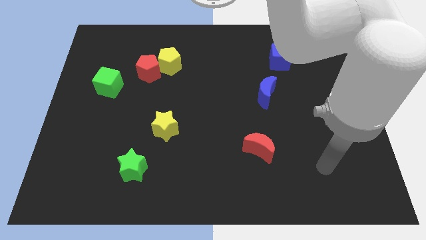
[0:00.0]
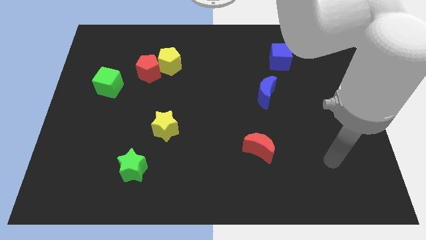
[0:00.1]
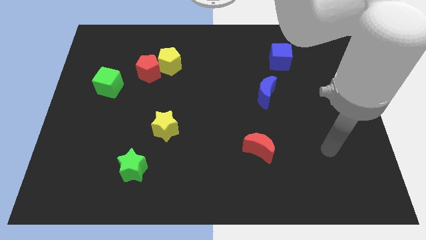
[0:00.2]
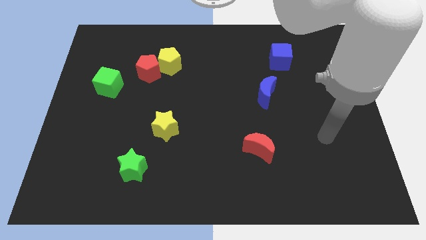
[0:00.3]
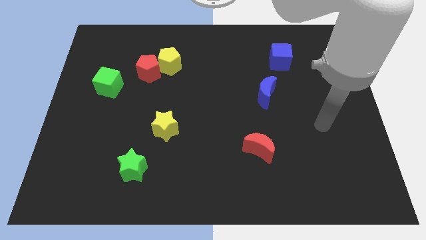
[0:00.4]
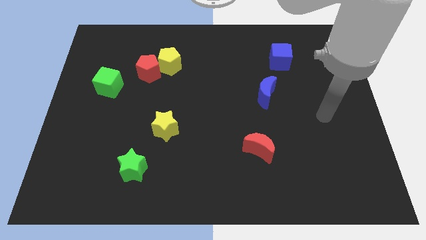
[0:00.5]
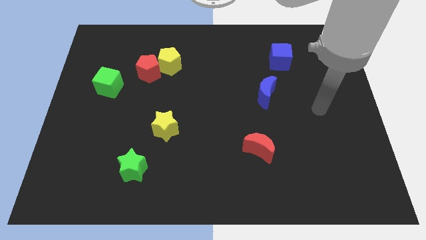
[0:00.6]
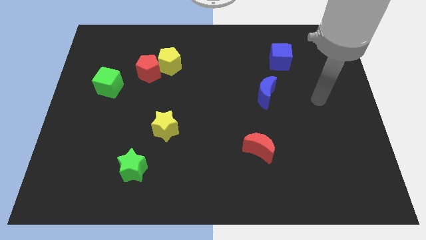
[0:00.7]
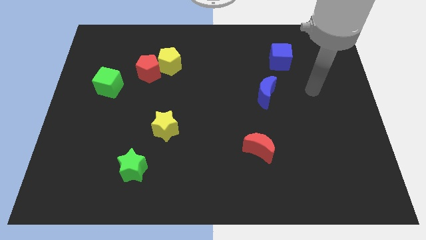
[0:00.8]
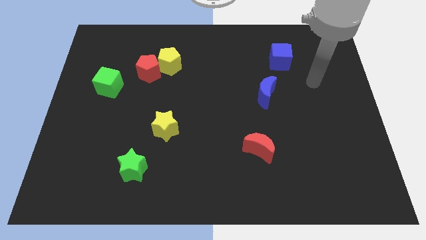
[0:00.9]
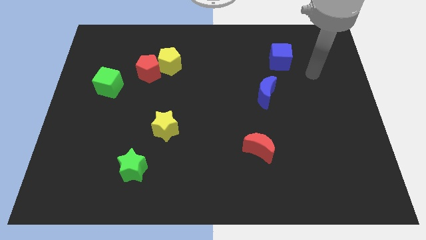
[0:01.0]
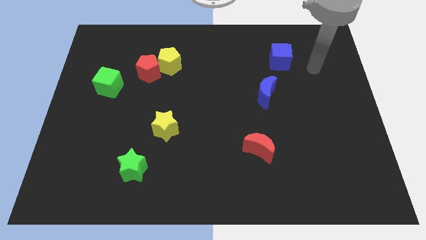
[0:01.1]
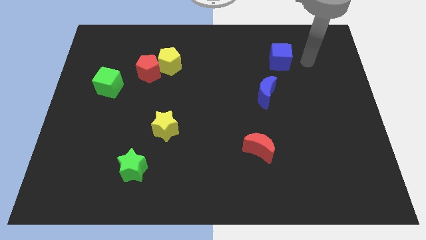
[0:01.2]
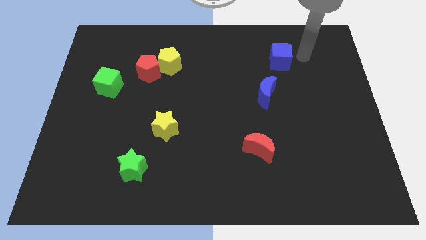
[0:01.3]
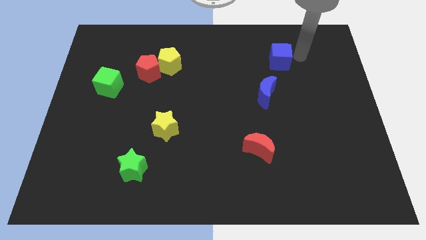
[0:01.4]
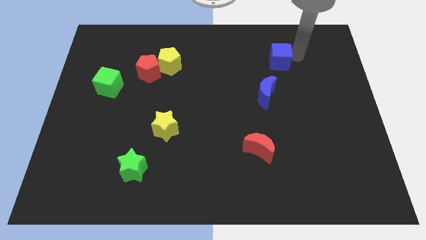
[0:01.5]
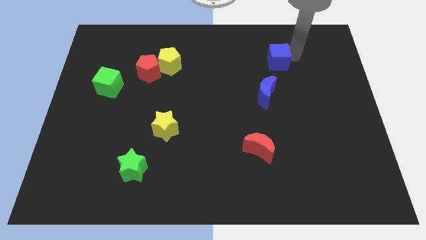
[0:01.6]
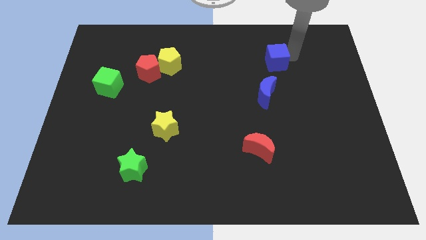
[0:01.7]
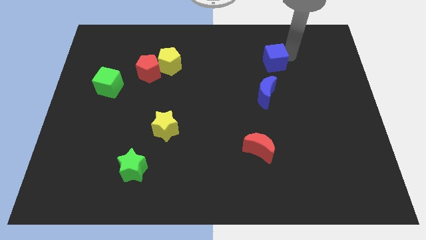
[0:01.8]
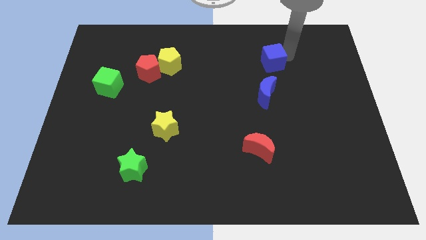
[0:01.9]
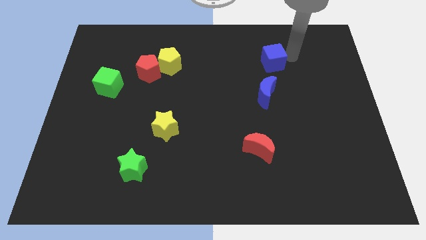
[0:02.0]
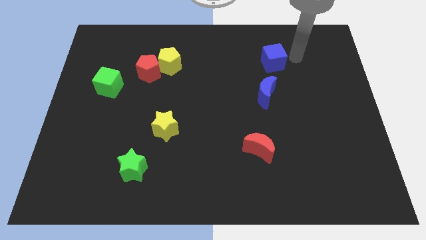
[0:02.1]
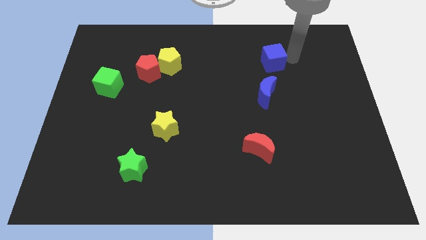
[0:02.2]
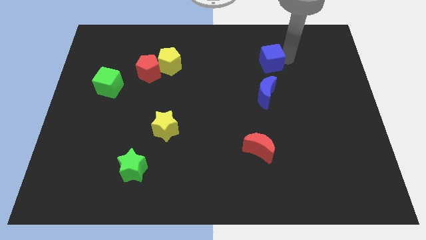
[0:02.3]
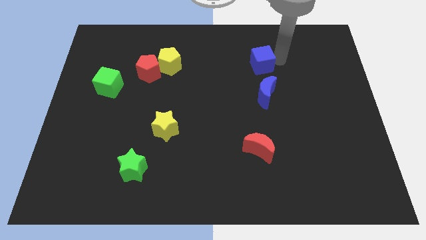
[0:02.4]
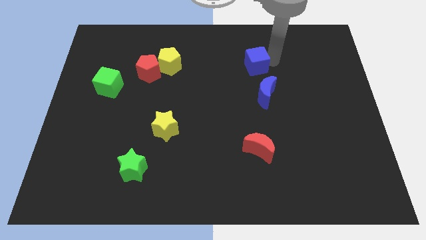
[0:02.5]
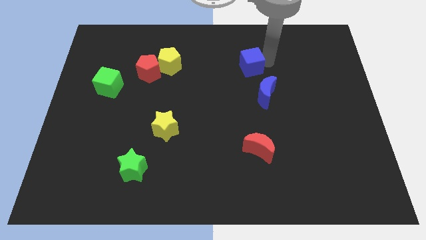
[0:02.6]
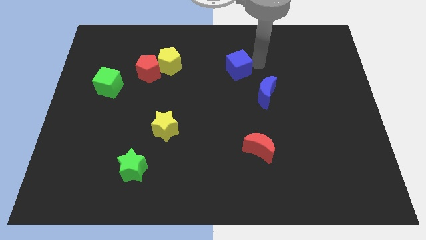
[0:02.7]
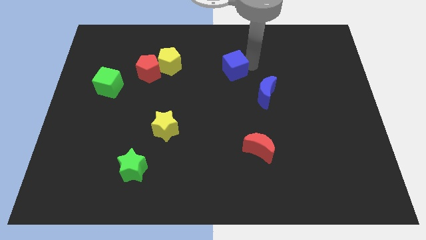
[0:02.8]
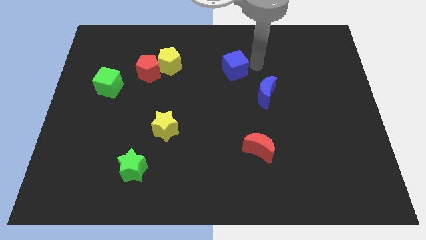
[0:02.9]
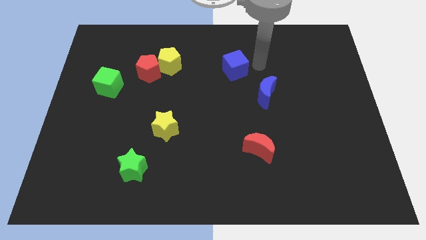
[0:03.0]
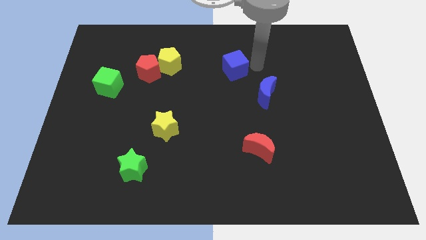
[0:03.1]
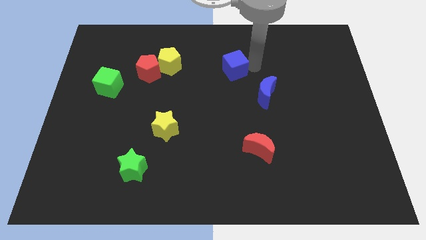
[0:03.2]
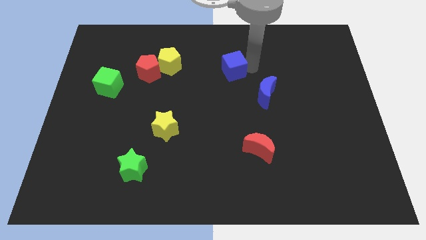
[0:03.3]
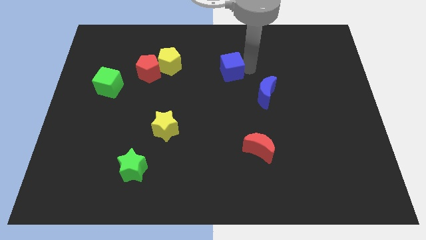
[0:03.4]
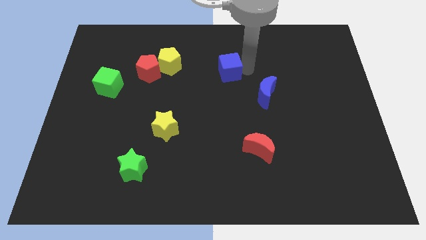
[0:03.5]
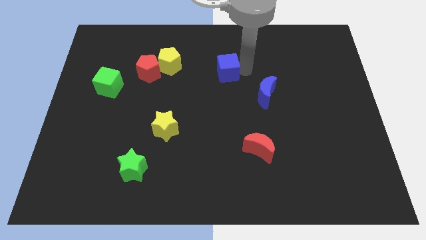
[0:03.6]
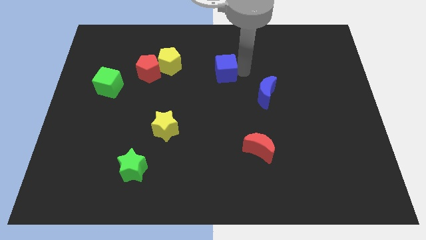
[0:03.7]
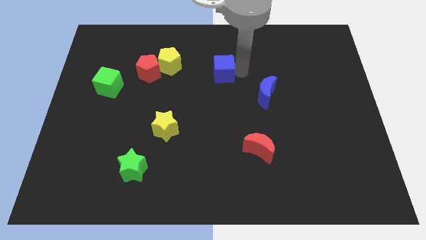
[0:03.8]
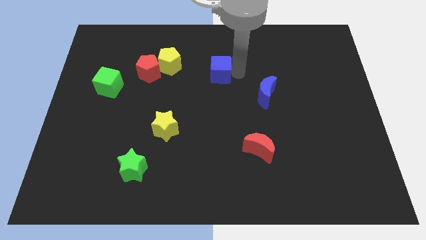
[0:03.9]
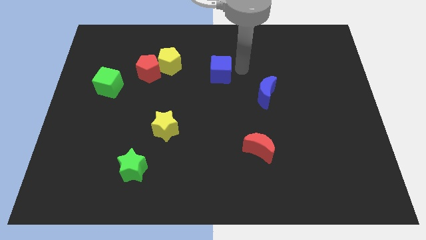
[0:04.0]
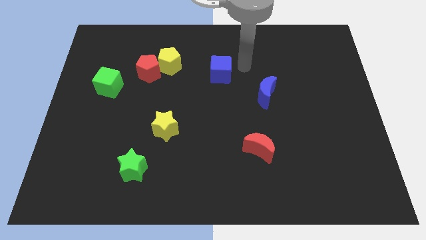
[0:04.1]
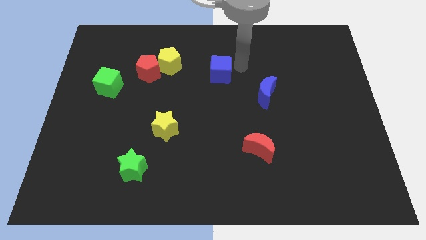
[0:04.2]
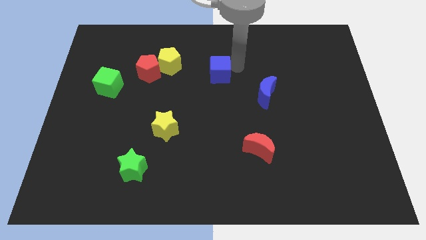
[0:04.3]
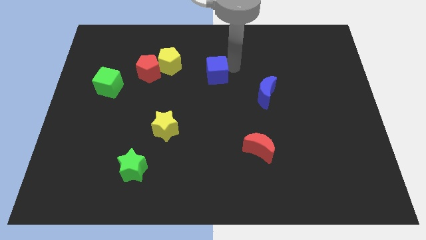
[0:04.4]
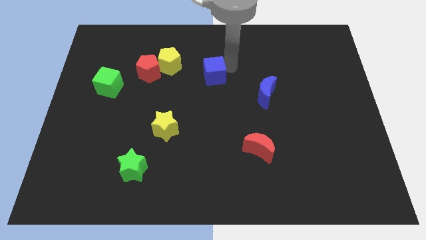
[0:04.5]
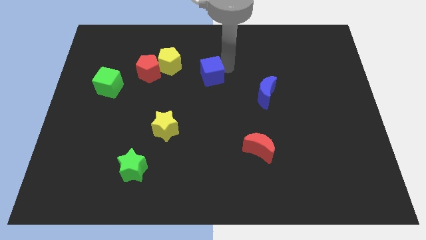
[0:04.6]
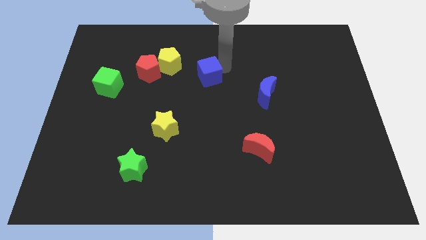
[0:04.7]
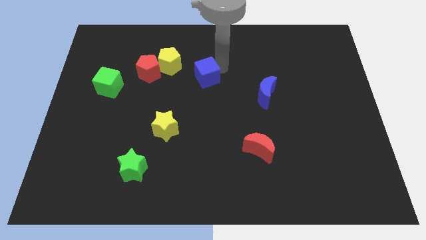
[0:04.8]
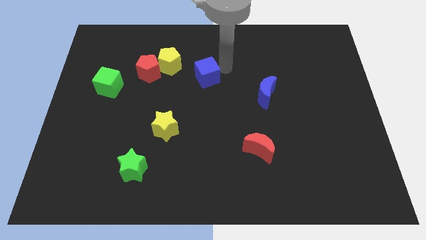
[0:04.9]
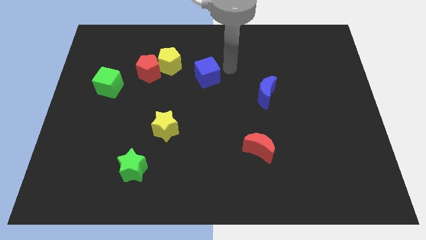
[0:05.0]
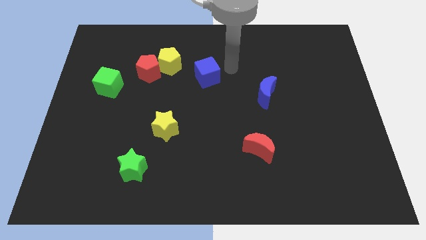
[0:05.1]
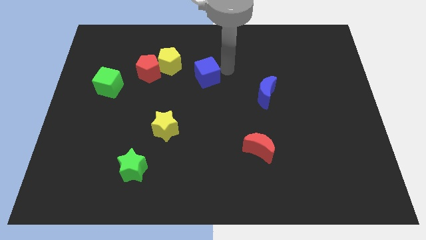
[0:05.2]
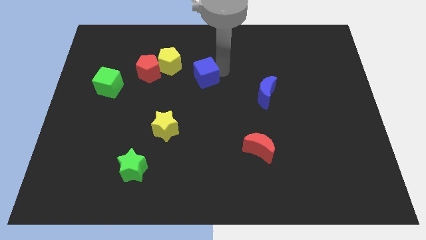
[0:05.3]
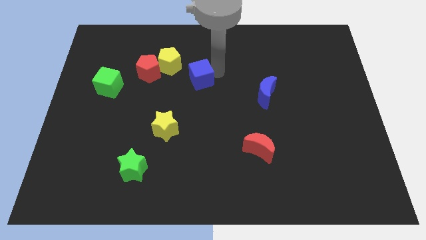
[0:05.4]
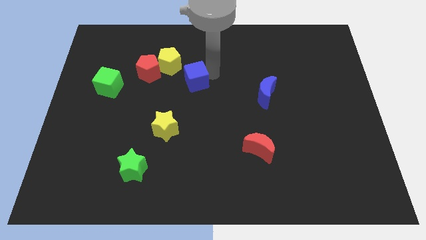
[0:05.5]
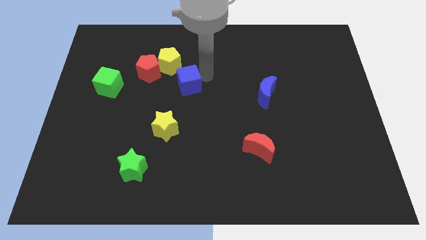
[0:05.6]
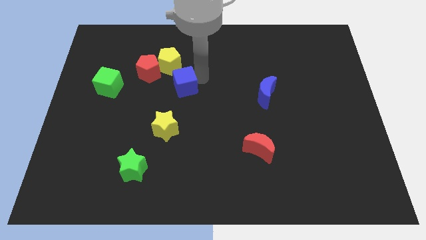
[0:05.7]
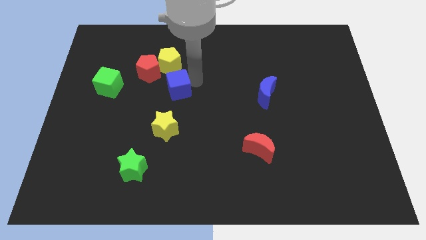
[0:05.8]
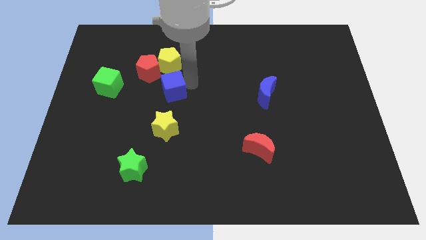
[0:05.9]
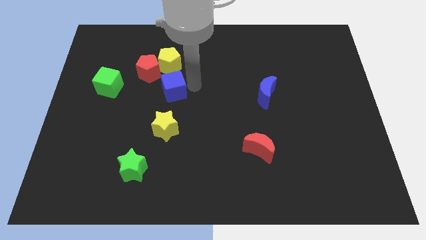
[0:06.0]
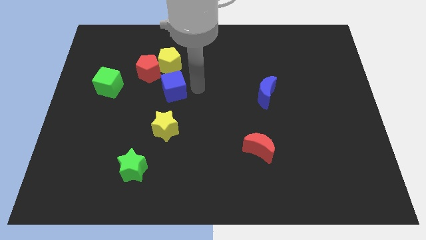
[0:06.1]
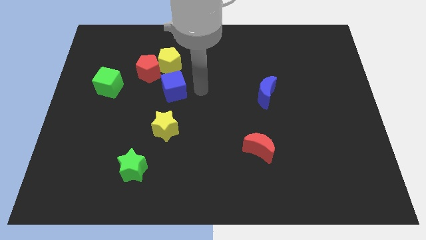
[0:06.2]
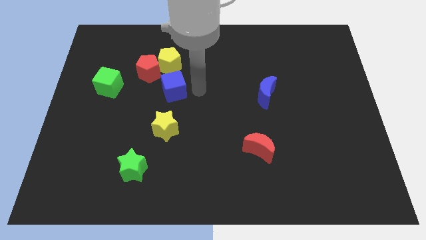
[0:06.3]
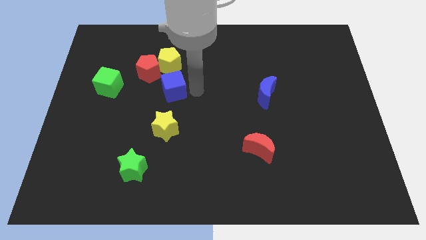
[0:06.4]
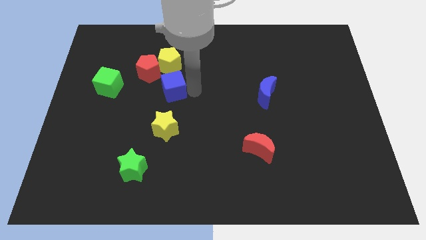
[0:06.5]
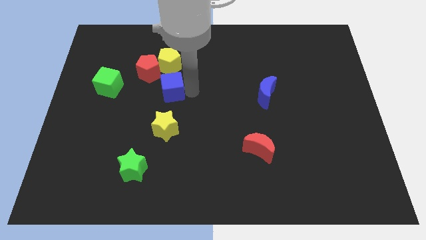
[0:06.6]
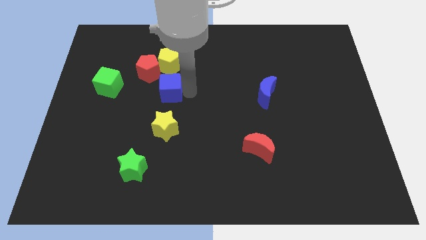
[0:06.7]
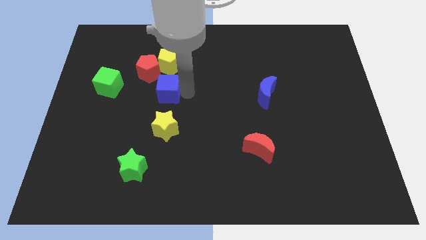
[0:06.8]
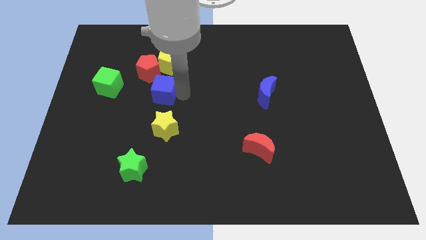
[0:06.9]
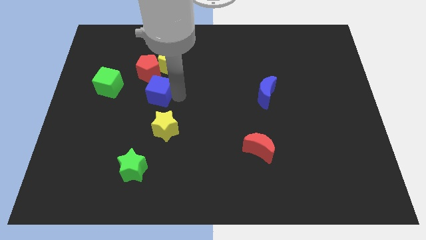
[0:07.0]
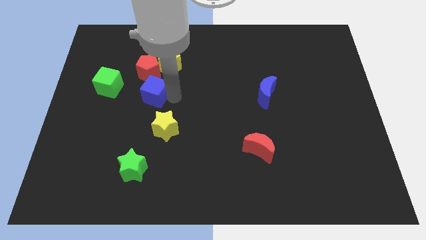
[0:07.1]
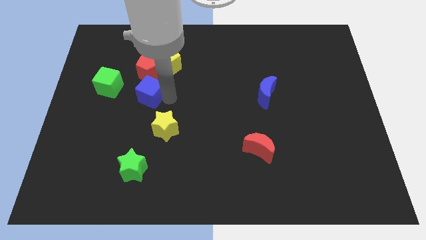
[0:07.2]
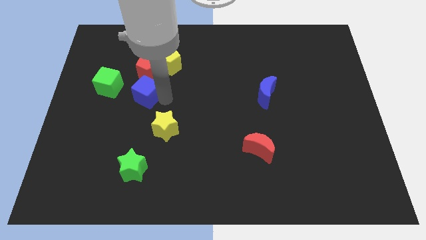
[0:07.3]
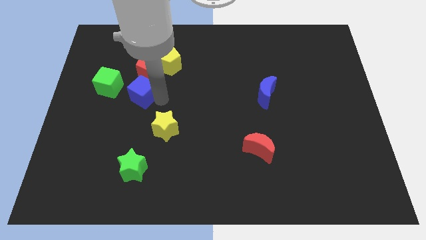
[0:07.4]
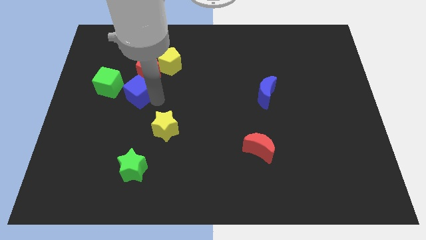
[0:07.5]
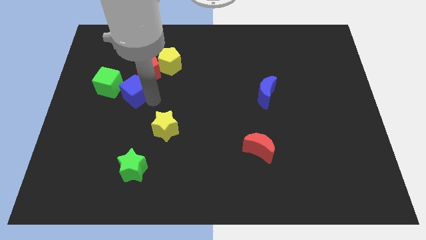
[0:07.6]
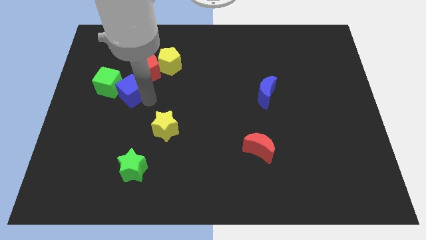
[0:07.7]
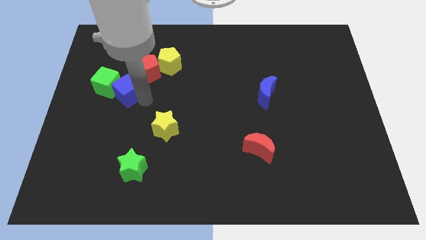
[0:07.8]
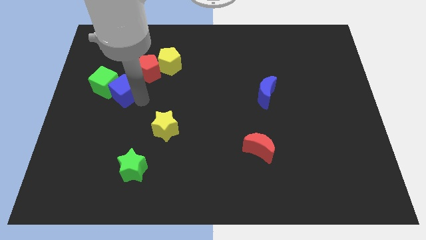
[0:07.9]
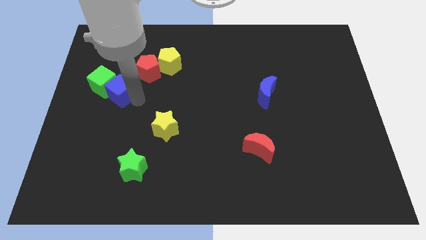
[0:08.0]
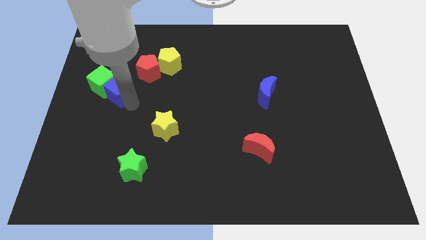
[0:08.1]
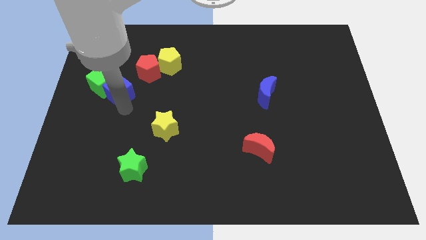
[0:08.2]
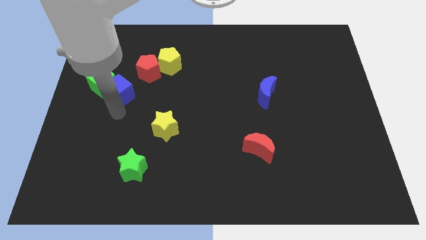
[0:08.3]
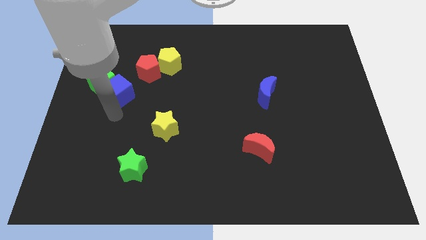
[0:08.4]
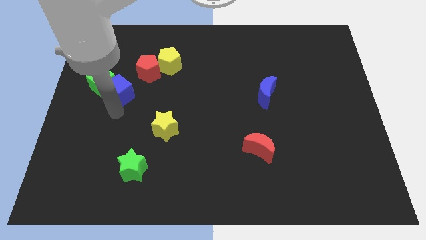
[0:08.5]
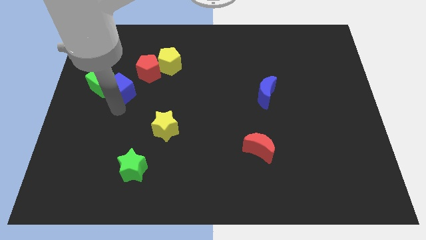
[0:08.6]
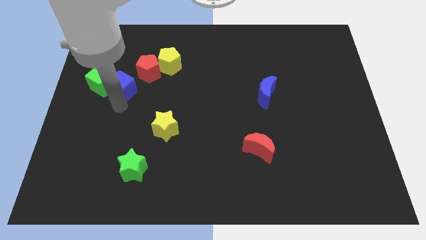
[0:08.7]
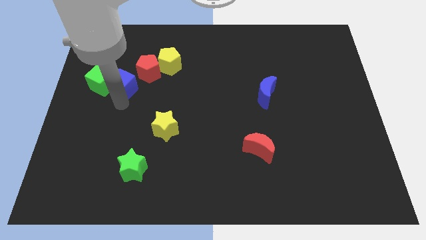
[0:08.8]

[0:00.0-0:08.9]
move the blue cube to the top right side of the green cube
